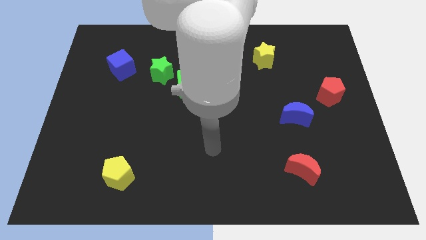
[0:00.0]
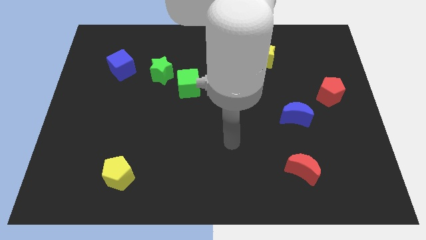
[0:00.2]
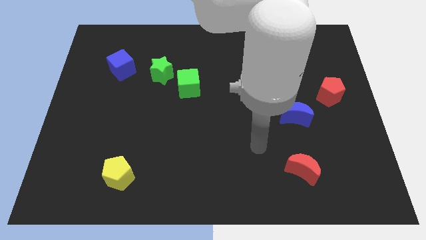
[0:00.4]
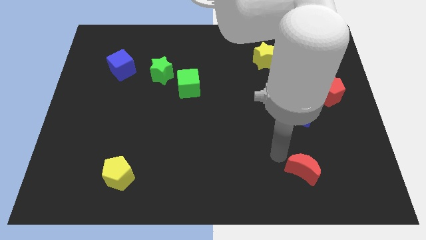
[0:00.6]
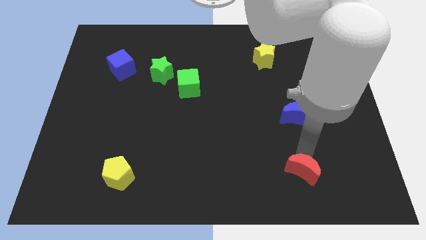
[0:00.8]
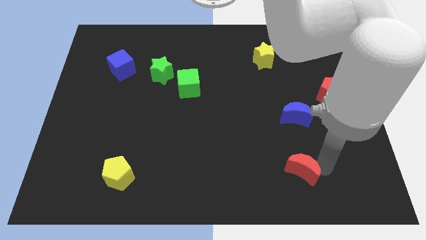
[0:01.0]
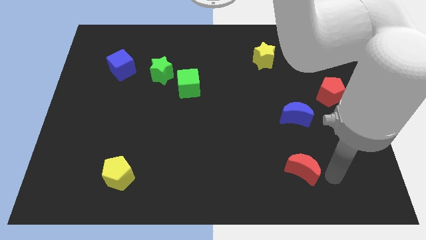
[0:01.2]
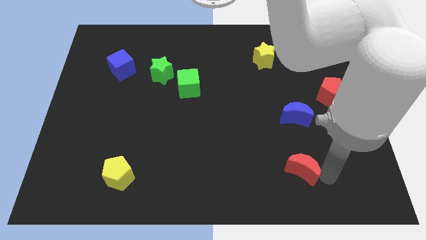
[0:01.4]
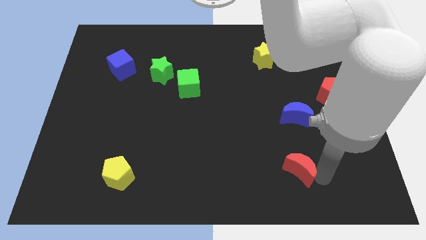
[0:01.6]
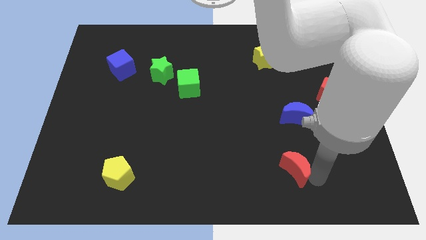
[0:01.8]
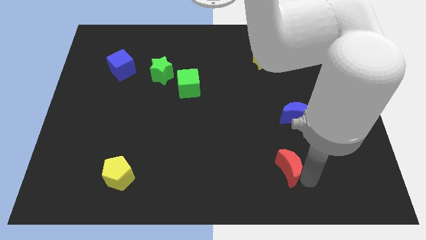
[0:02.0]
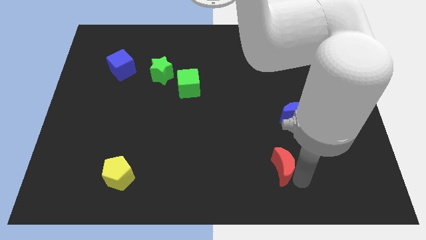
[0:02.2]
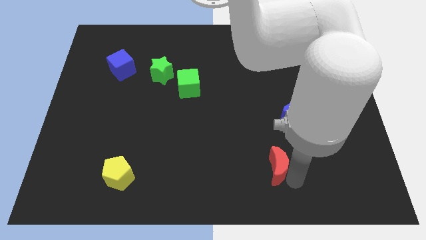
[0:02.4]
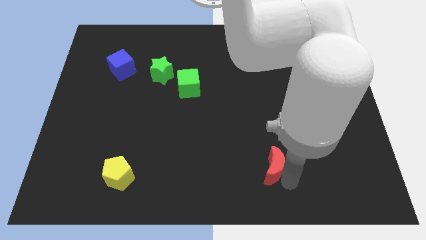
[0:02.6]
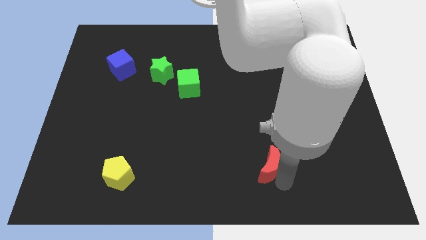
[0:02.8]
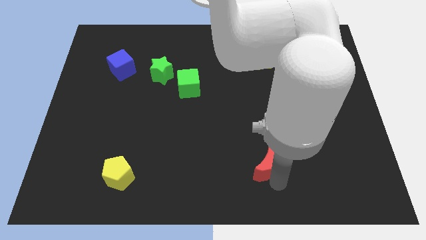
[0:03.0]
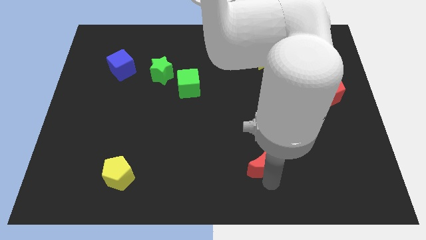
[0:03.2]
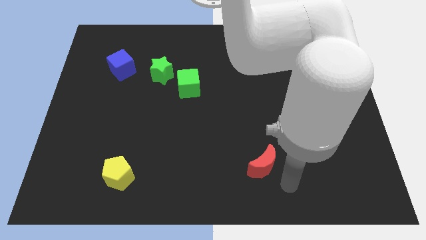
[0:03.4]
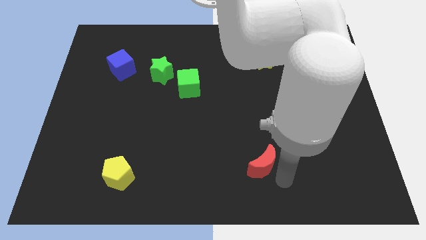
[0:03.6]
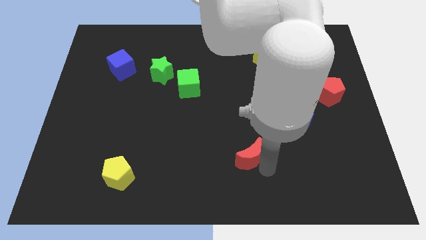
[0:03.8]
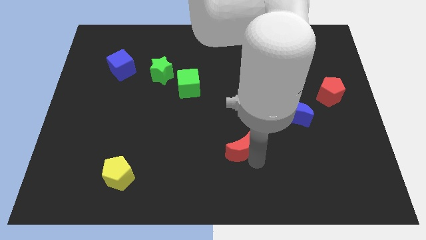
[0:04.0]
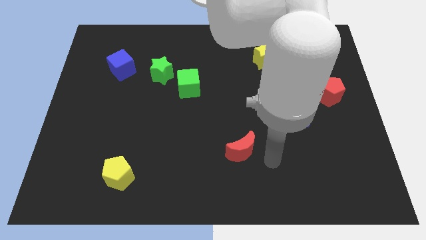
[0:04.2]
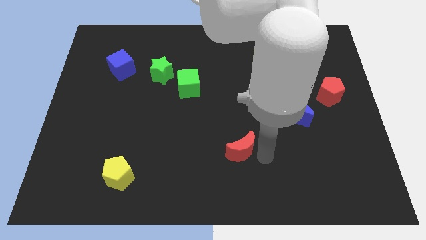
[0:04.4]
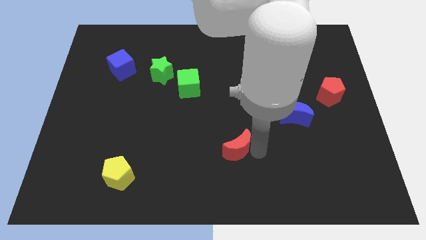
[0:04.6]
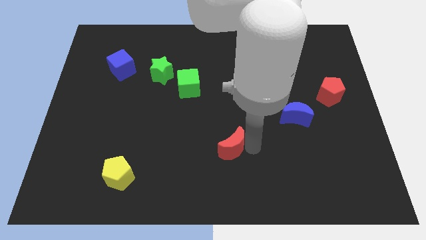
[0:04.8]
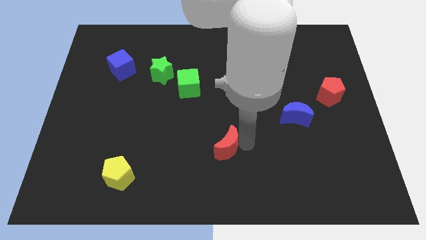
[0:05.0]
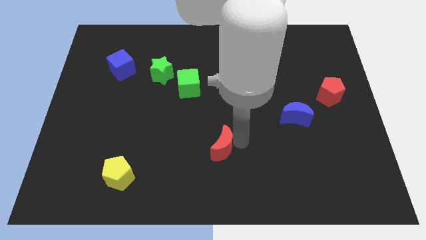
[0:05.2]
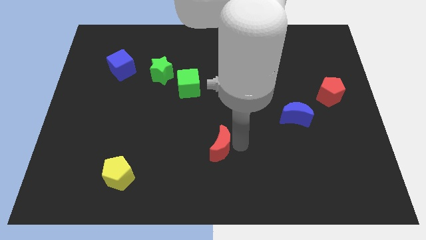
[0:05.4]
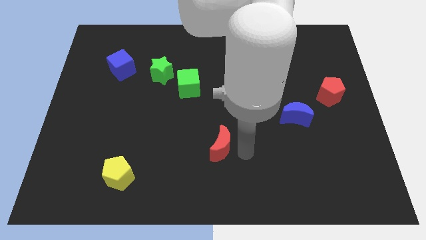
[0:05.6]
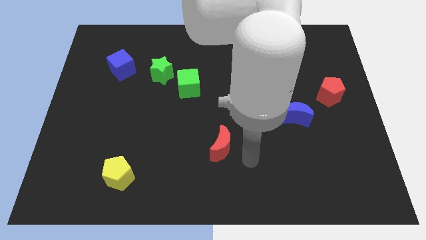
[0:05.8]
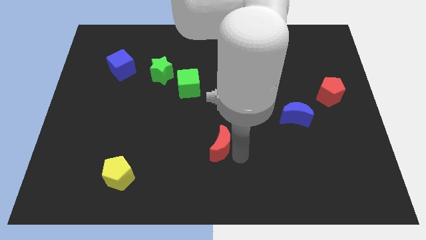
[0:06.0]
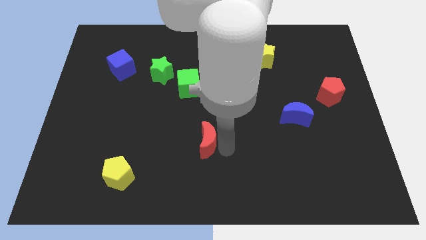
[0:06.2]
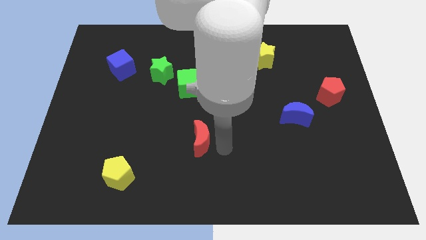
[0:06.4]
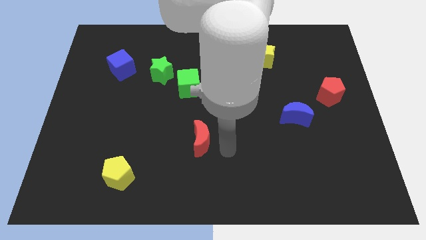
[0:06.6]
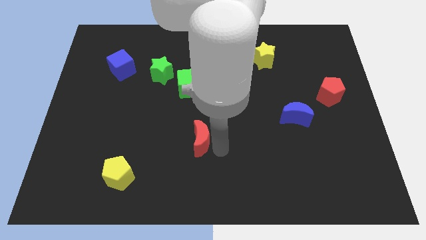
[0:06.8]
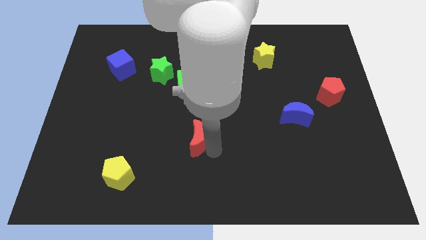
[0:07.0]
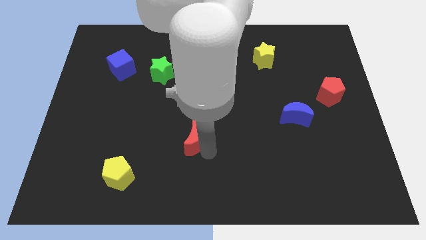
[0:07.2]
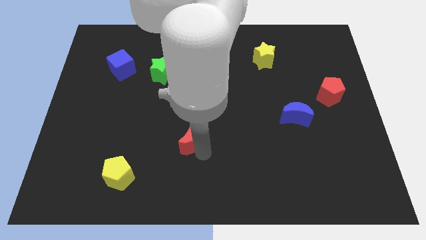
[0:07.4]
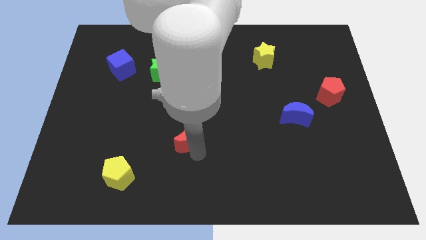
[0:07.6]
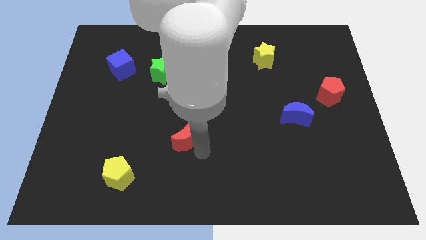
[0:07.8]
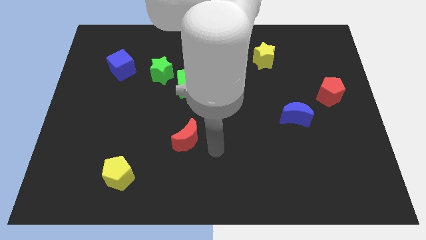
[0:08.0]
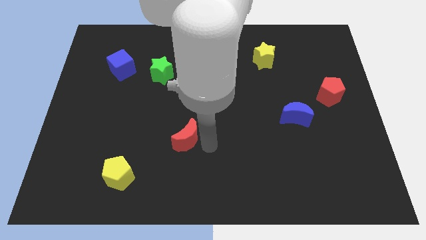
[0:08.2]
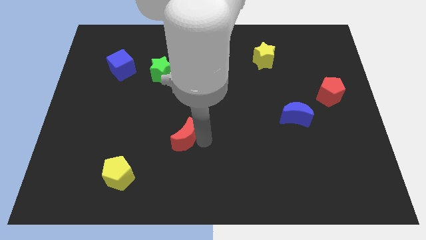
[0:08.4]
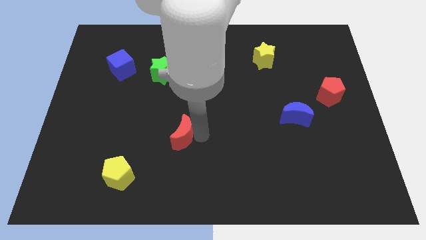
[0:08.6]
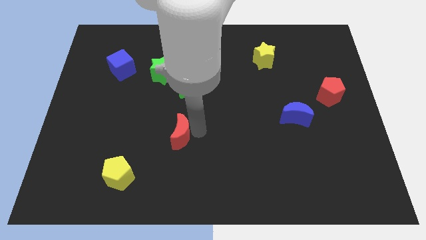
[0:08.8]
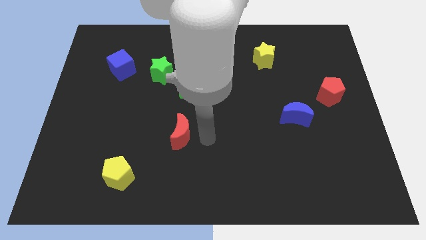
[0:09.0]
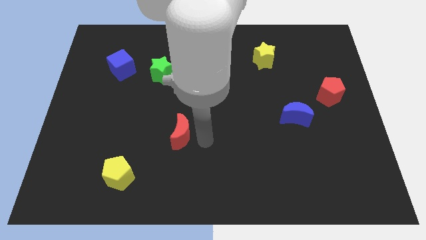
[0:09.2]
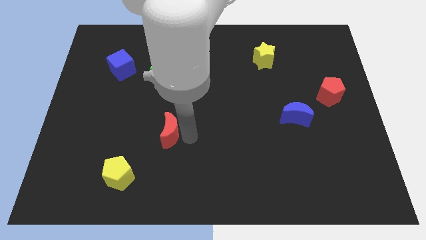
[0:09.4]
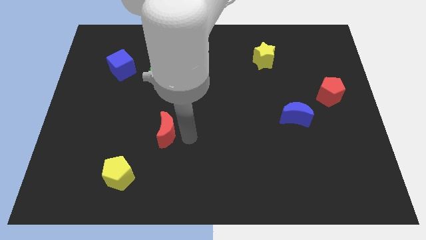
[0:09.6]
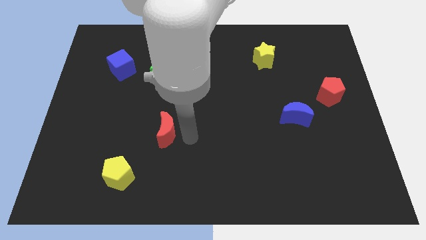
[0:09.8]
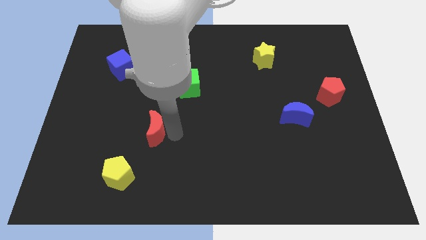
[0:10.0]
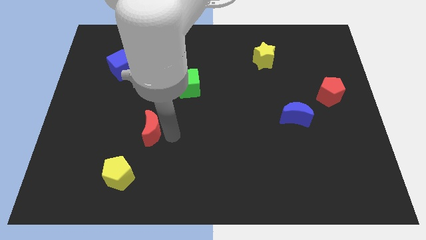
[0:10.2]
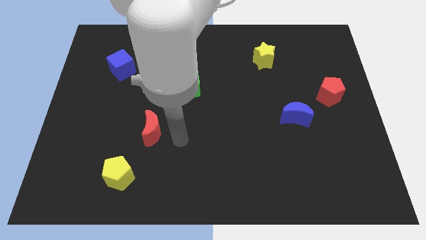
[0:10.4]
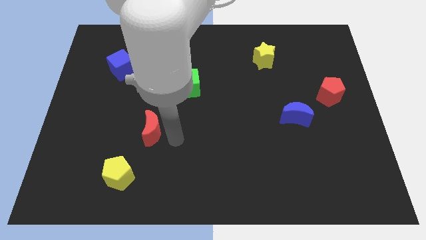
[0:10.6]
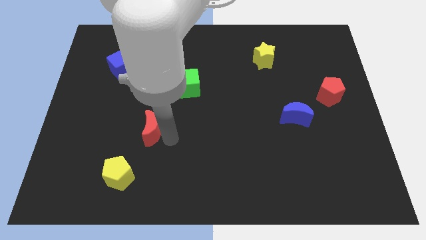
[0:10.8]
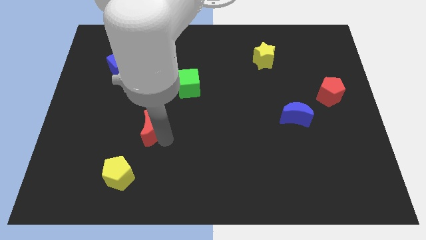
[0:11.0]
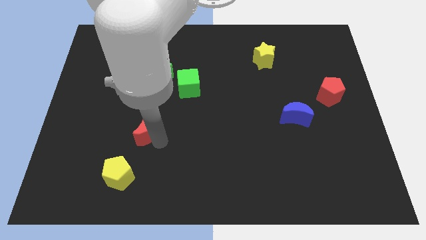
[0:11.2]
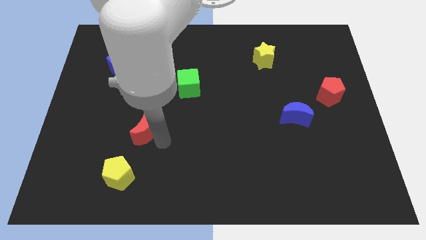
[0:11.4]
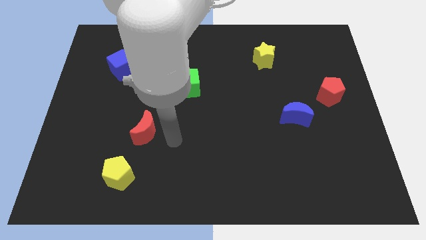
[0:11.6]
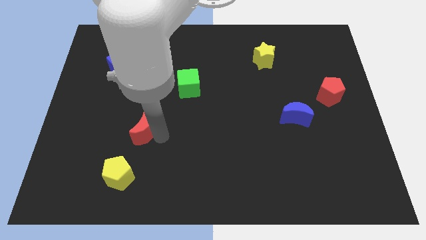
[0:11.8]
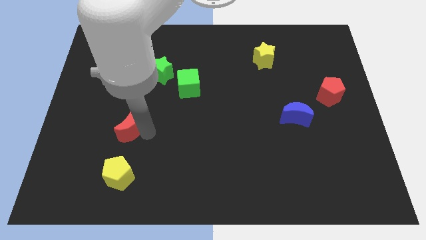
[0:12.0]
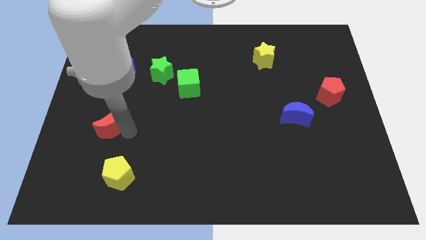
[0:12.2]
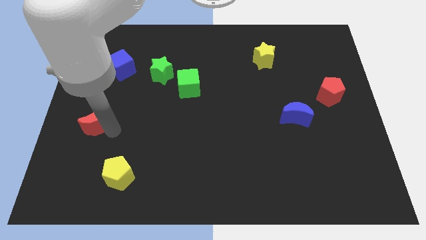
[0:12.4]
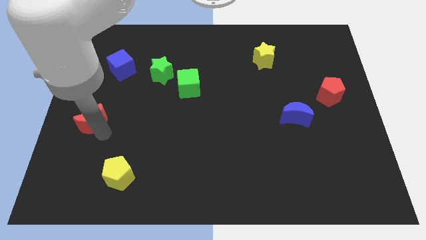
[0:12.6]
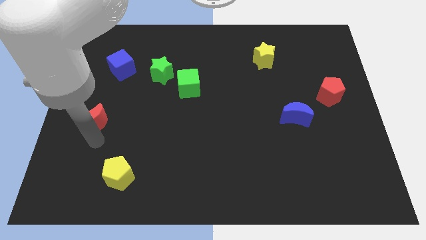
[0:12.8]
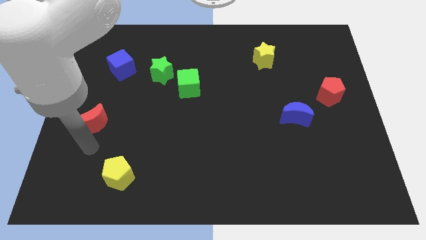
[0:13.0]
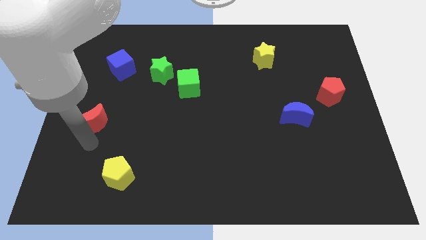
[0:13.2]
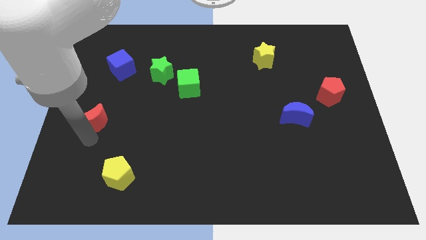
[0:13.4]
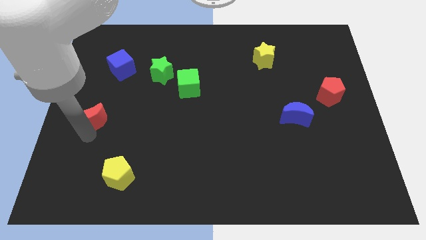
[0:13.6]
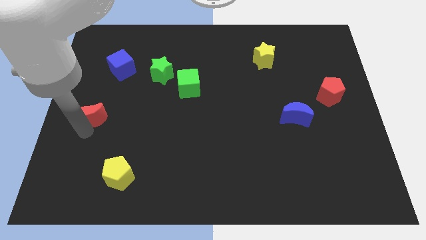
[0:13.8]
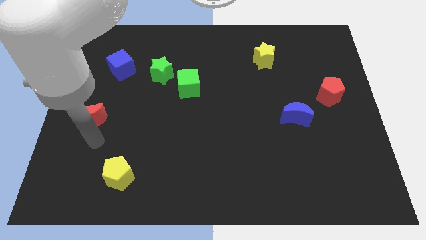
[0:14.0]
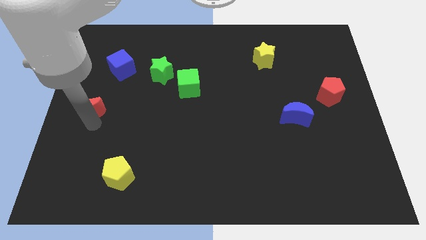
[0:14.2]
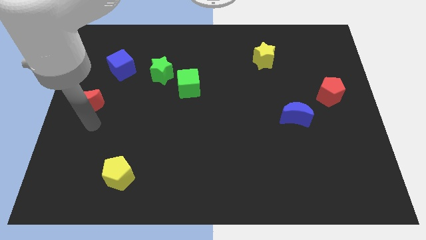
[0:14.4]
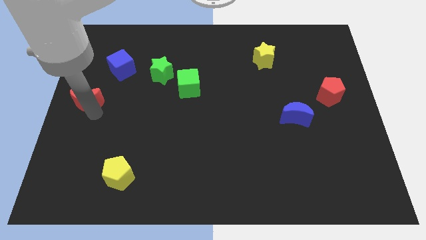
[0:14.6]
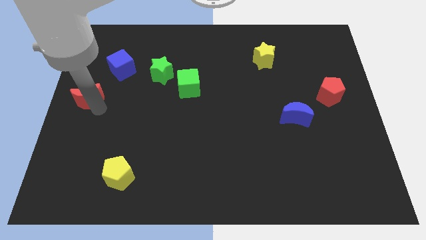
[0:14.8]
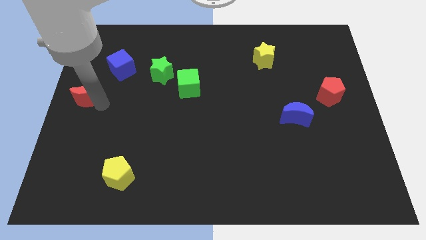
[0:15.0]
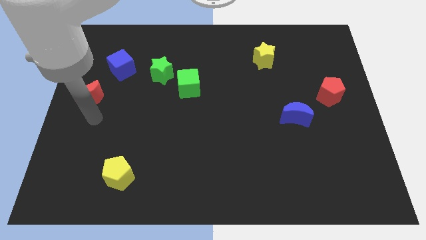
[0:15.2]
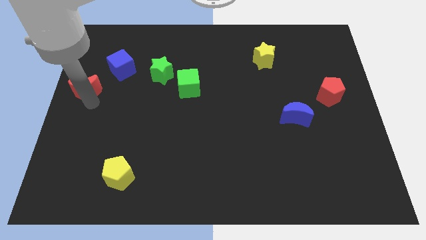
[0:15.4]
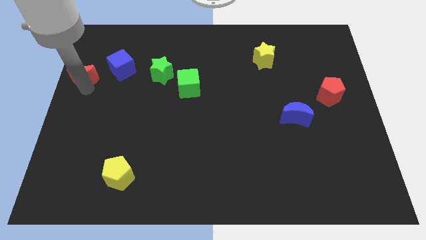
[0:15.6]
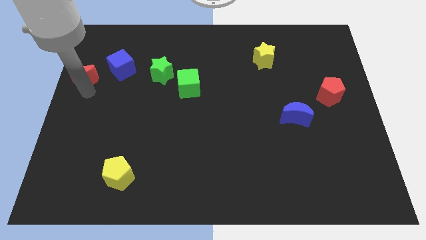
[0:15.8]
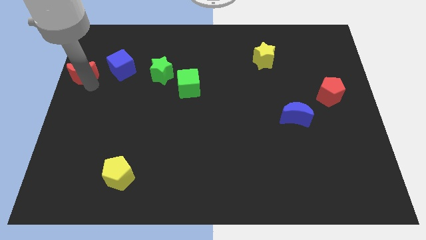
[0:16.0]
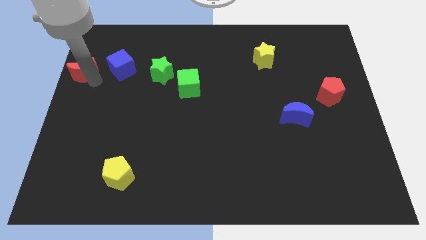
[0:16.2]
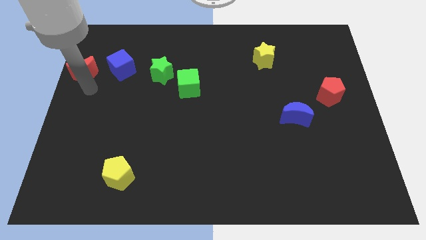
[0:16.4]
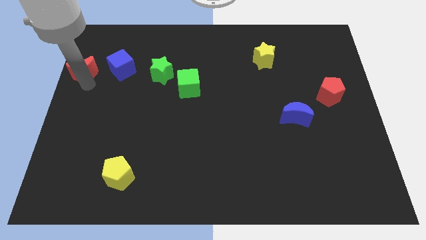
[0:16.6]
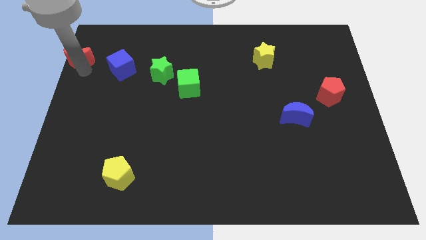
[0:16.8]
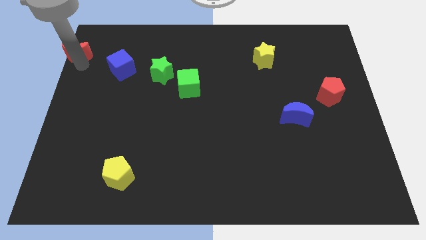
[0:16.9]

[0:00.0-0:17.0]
push the red moon to the top left of the board
